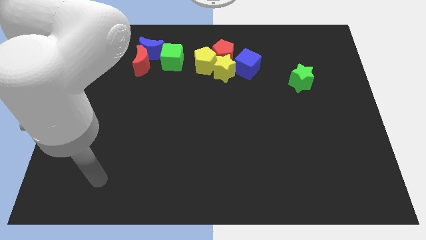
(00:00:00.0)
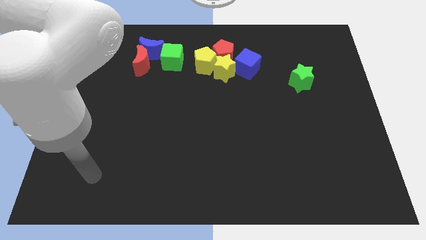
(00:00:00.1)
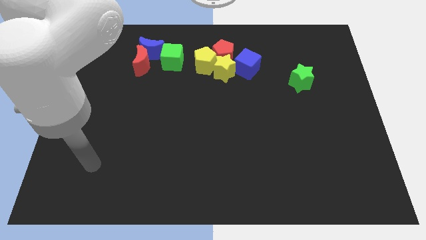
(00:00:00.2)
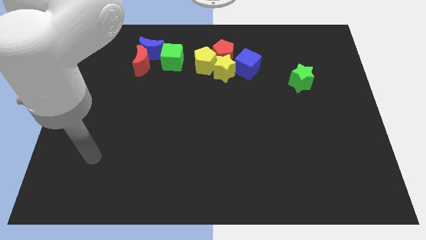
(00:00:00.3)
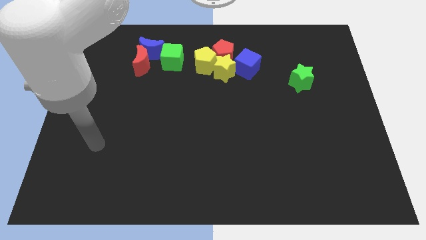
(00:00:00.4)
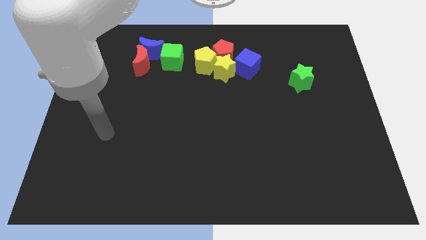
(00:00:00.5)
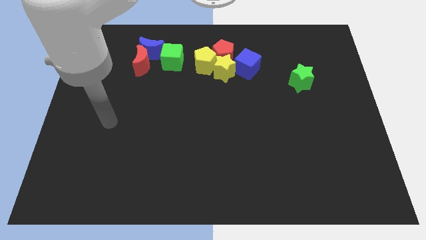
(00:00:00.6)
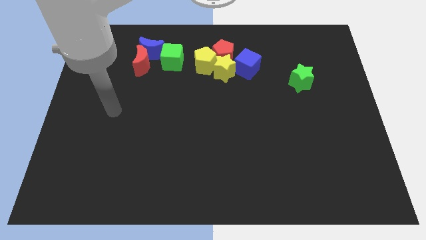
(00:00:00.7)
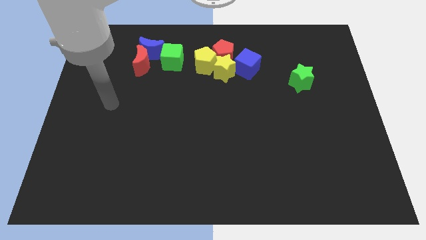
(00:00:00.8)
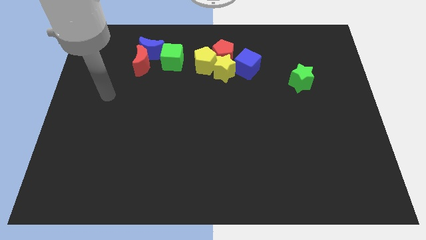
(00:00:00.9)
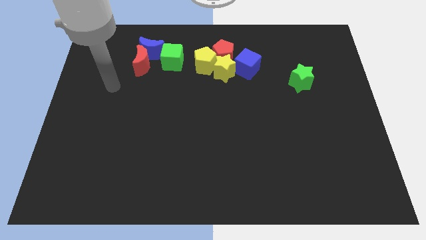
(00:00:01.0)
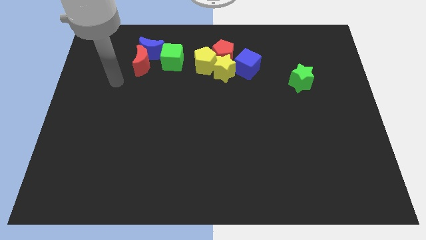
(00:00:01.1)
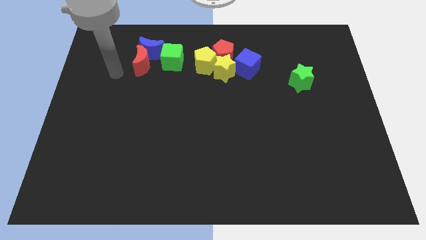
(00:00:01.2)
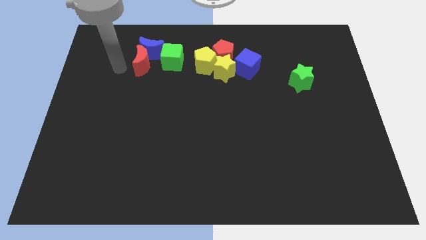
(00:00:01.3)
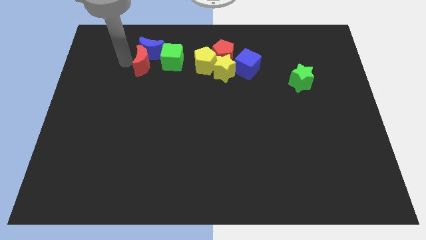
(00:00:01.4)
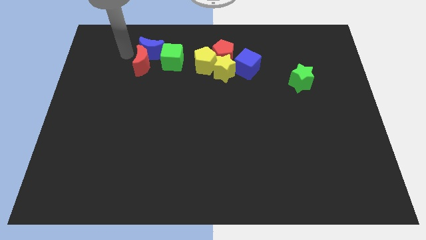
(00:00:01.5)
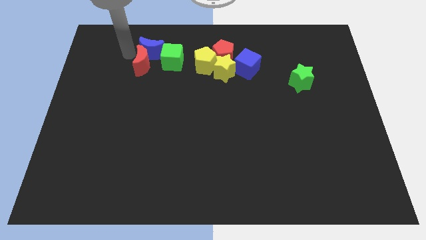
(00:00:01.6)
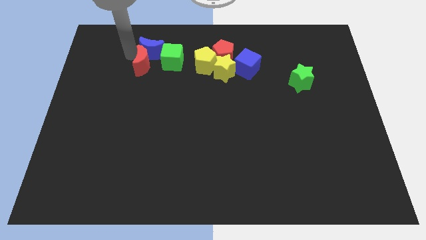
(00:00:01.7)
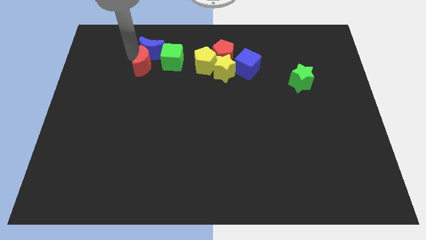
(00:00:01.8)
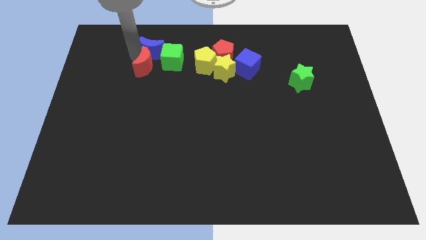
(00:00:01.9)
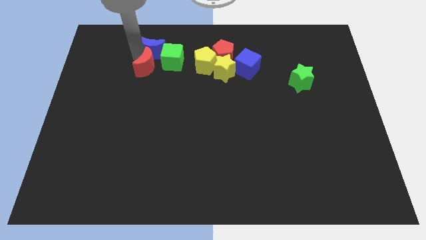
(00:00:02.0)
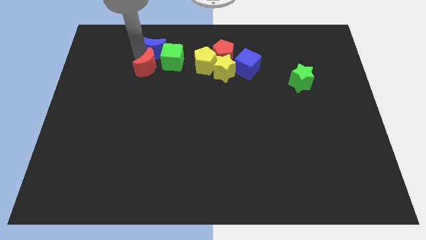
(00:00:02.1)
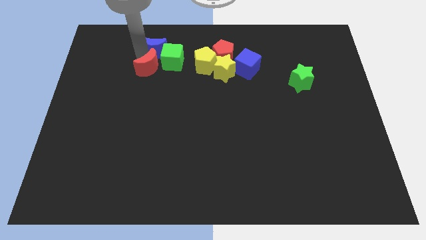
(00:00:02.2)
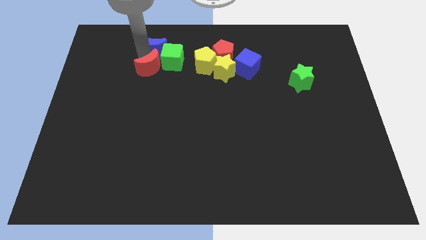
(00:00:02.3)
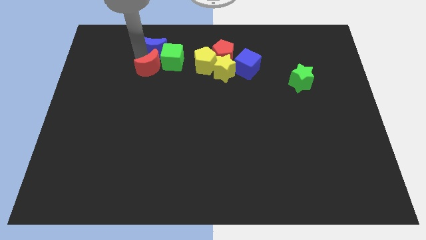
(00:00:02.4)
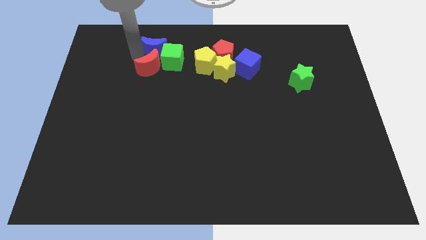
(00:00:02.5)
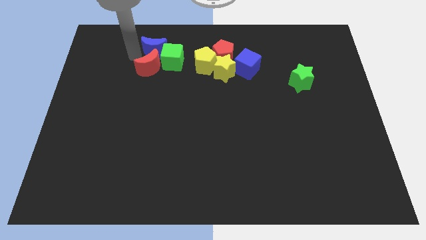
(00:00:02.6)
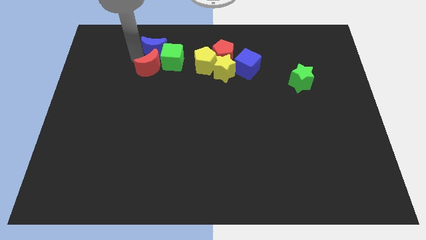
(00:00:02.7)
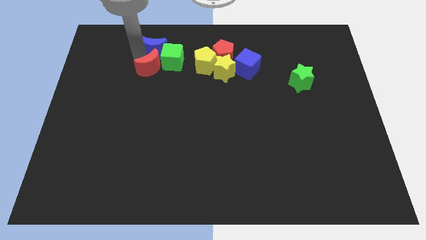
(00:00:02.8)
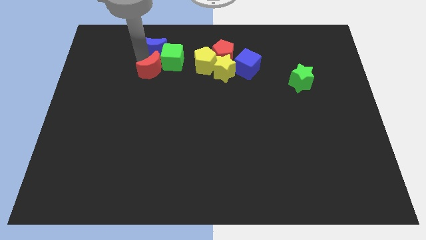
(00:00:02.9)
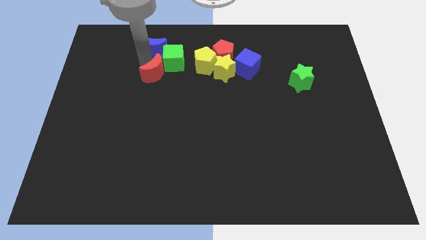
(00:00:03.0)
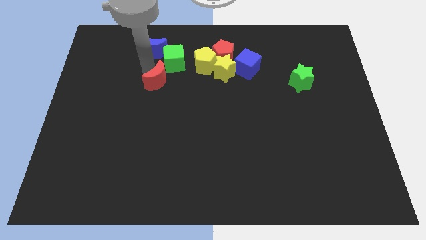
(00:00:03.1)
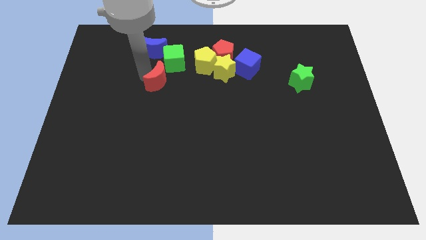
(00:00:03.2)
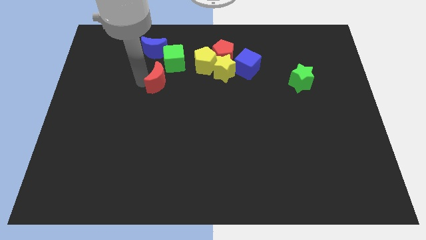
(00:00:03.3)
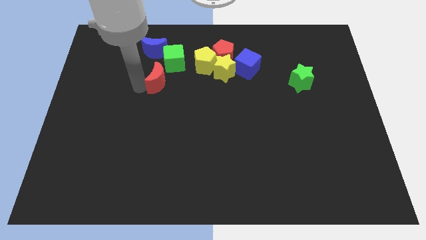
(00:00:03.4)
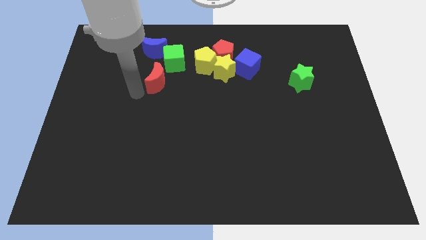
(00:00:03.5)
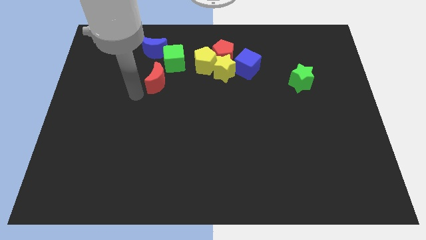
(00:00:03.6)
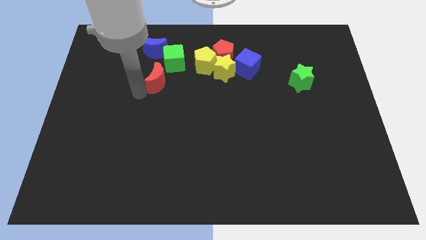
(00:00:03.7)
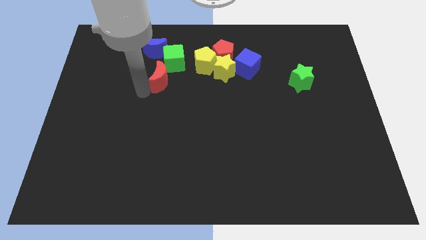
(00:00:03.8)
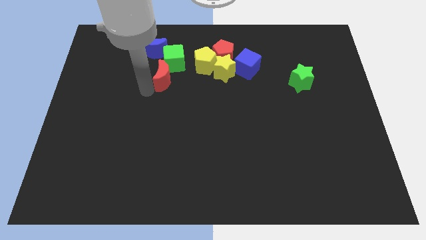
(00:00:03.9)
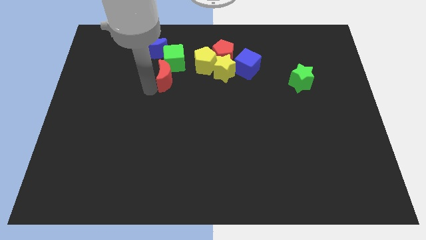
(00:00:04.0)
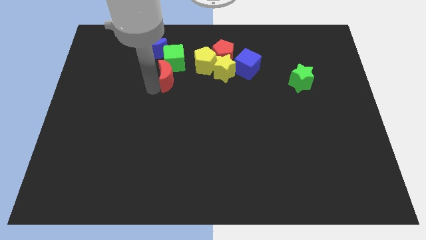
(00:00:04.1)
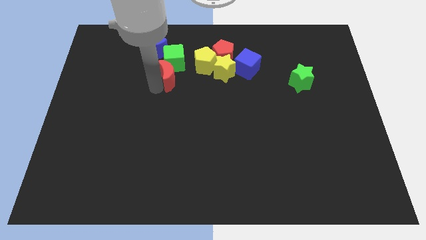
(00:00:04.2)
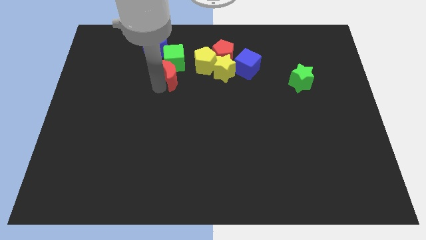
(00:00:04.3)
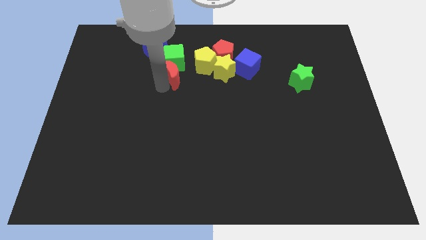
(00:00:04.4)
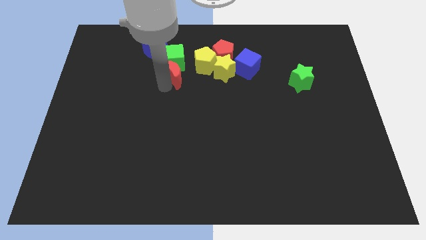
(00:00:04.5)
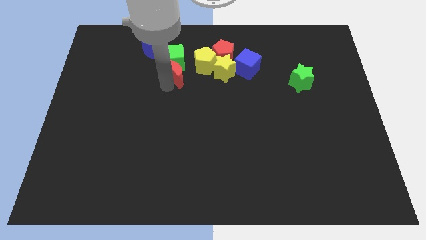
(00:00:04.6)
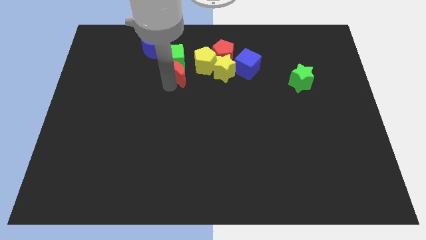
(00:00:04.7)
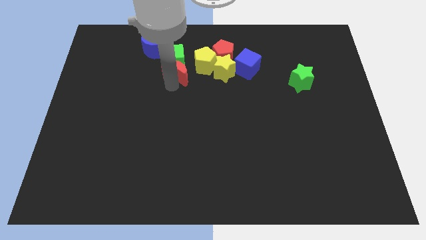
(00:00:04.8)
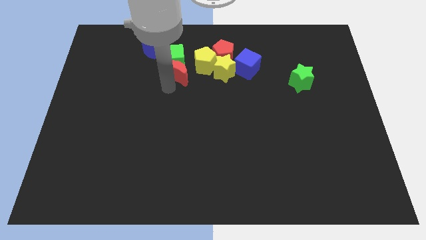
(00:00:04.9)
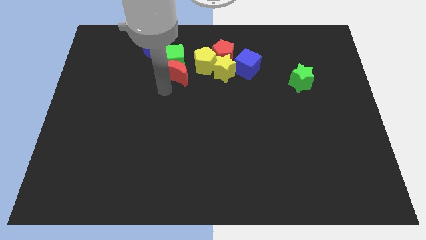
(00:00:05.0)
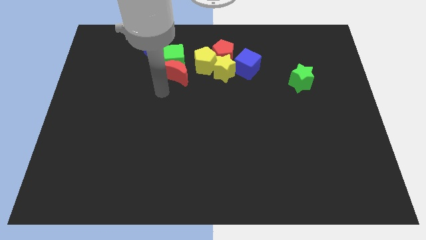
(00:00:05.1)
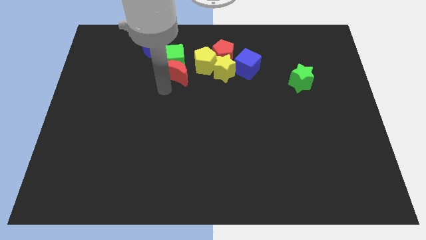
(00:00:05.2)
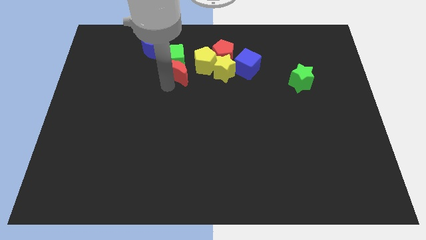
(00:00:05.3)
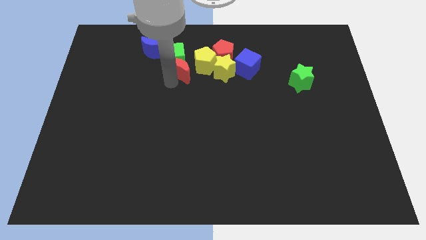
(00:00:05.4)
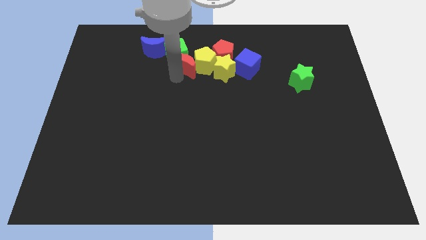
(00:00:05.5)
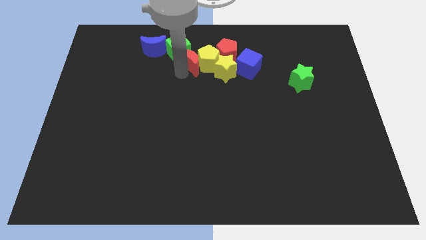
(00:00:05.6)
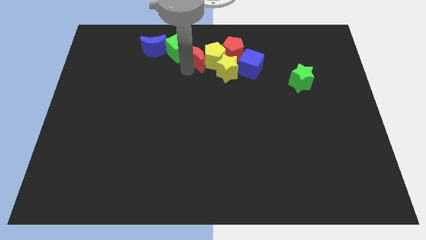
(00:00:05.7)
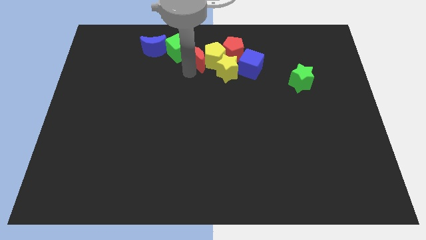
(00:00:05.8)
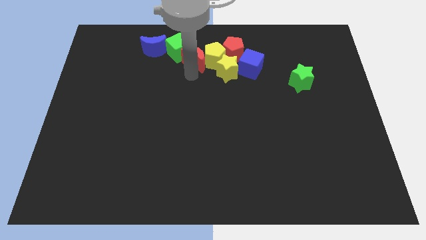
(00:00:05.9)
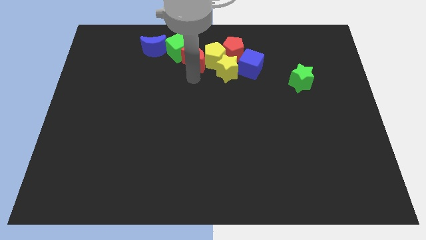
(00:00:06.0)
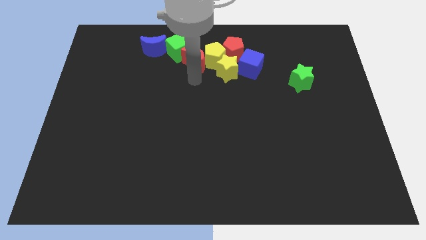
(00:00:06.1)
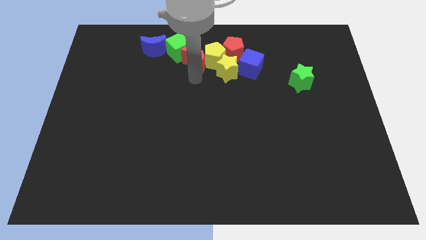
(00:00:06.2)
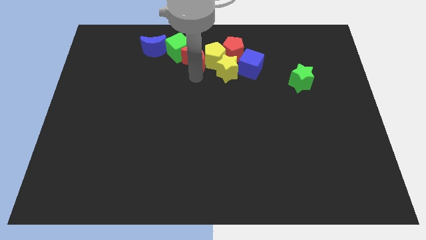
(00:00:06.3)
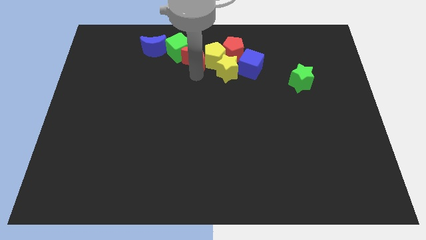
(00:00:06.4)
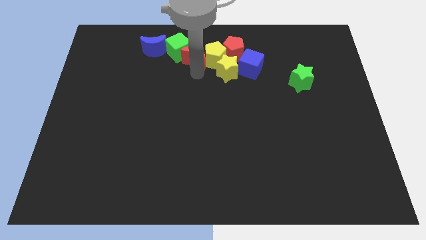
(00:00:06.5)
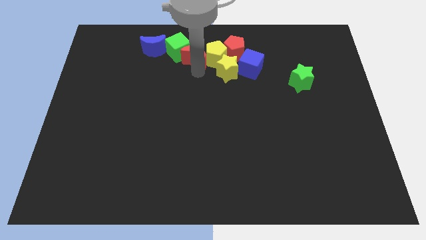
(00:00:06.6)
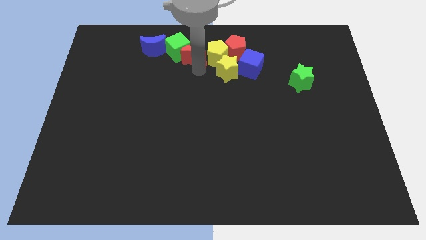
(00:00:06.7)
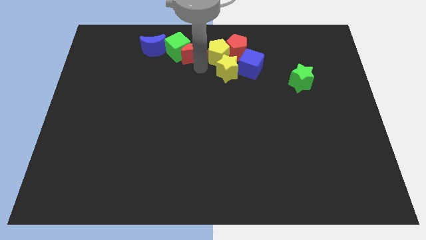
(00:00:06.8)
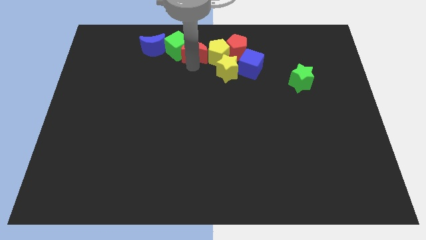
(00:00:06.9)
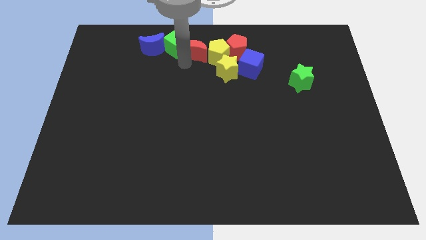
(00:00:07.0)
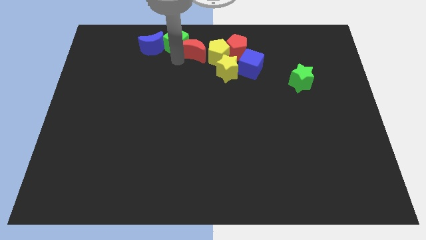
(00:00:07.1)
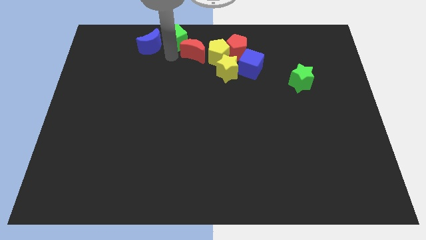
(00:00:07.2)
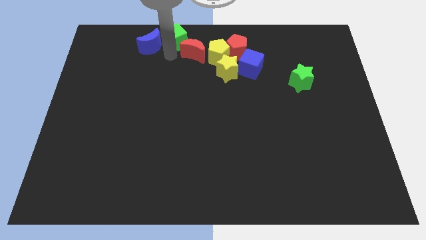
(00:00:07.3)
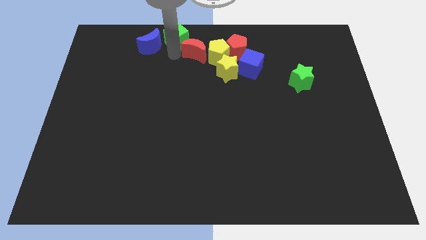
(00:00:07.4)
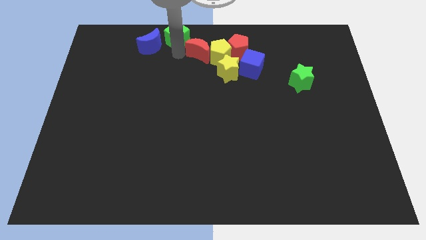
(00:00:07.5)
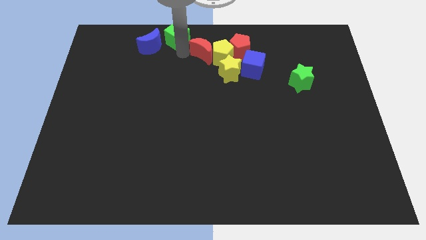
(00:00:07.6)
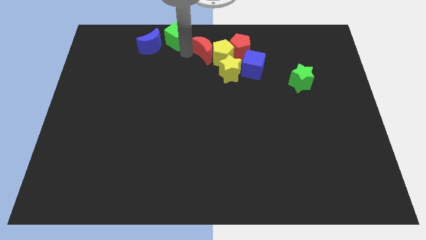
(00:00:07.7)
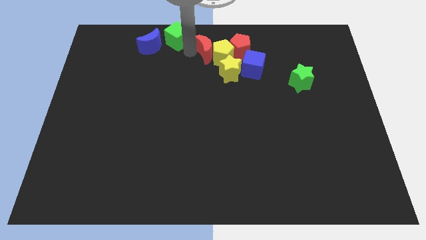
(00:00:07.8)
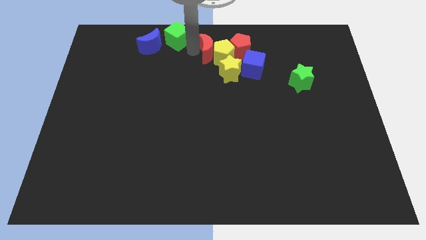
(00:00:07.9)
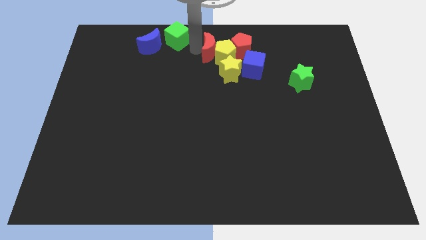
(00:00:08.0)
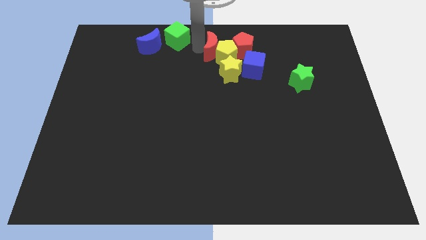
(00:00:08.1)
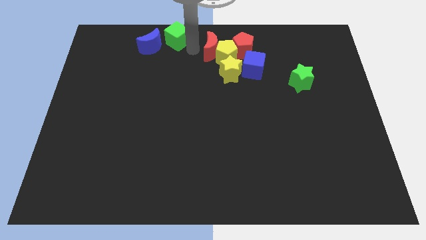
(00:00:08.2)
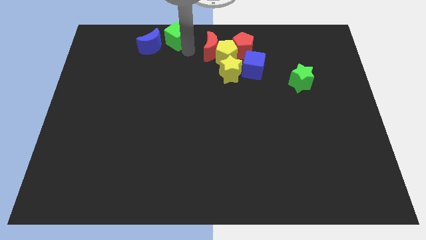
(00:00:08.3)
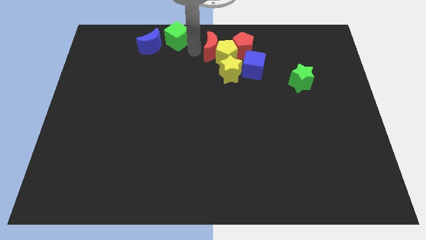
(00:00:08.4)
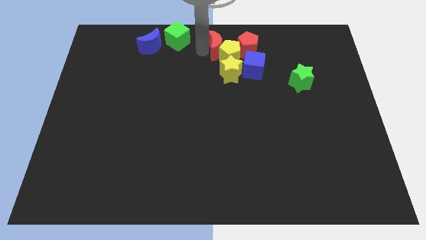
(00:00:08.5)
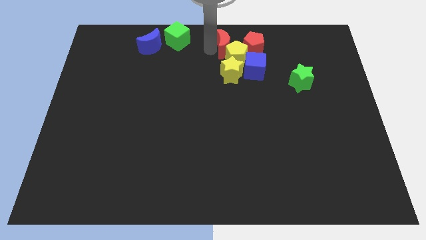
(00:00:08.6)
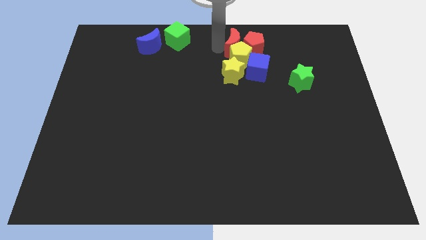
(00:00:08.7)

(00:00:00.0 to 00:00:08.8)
move the red moon towards the red pentagon
